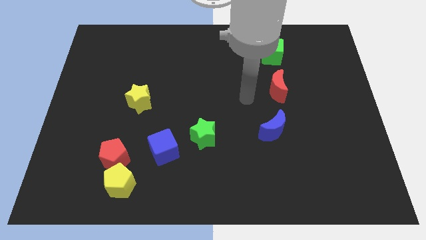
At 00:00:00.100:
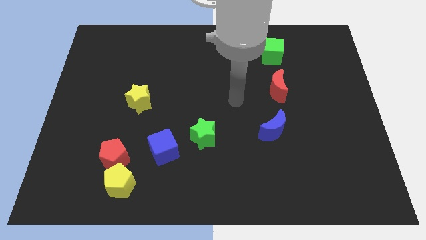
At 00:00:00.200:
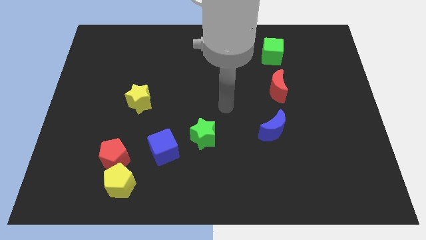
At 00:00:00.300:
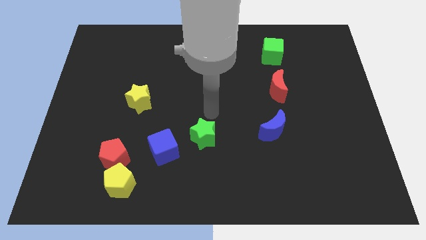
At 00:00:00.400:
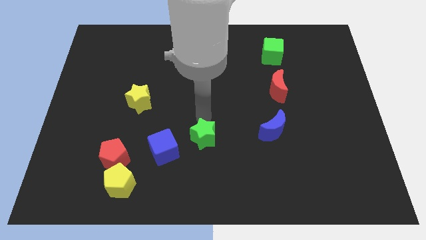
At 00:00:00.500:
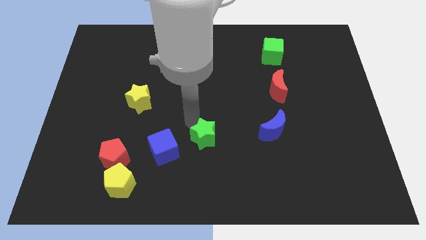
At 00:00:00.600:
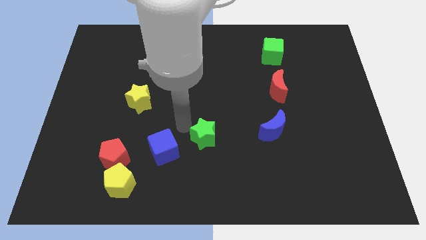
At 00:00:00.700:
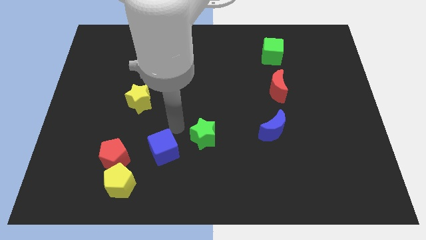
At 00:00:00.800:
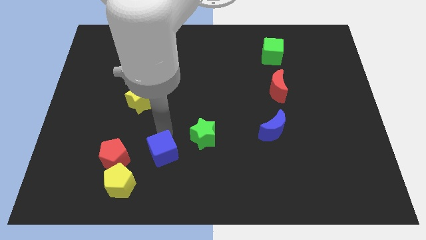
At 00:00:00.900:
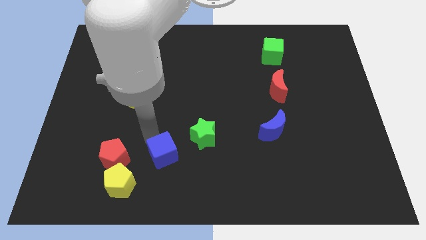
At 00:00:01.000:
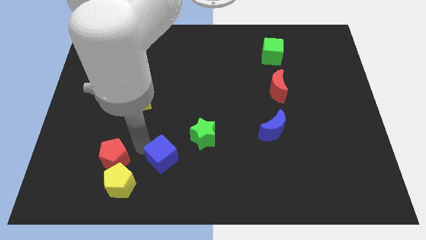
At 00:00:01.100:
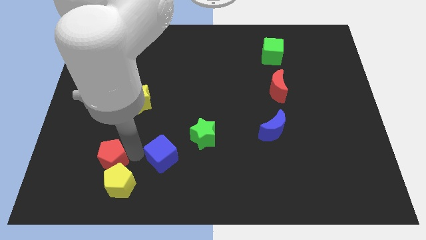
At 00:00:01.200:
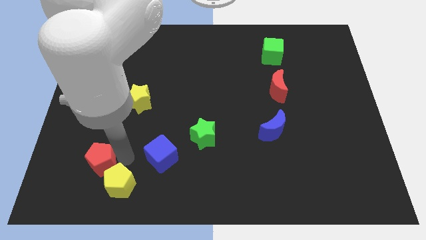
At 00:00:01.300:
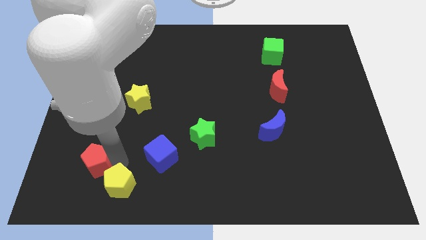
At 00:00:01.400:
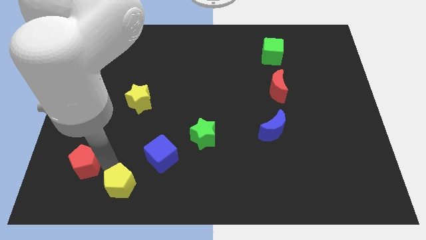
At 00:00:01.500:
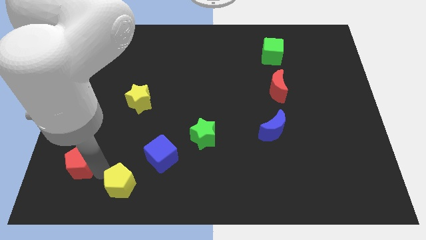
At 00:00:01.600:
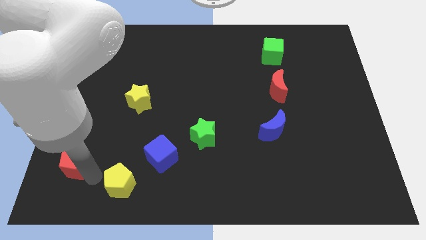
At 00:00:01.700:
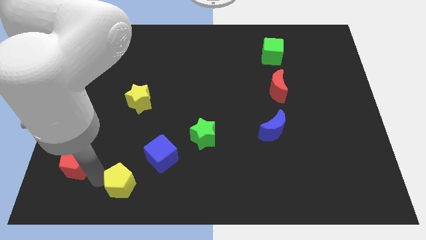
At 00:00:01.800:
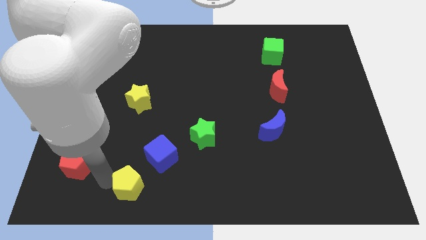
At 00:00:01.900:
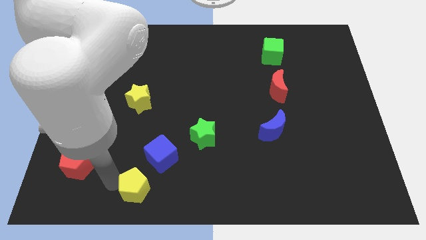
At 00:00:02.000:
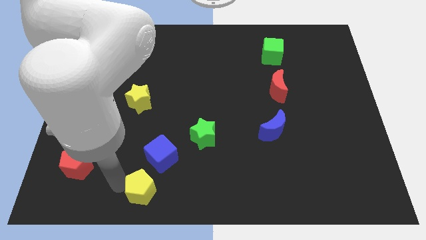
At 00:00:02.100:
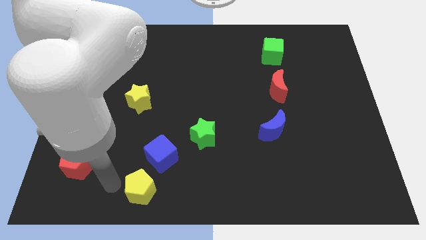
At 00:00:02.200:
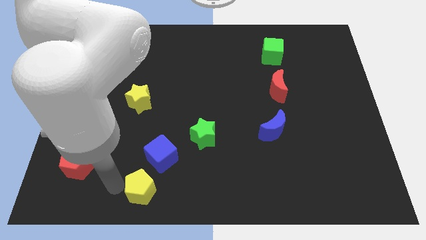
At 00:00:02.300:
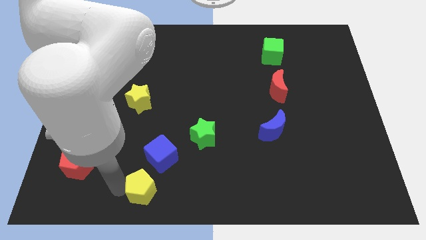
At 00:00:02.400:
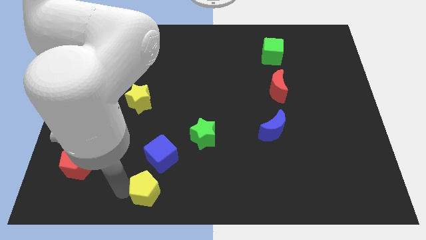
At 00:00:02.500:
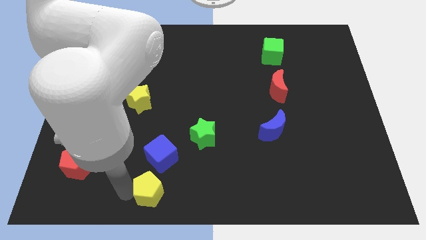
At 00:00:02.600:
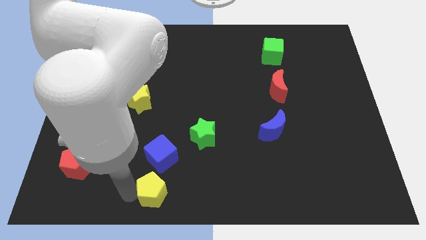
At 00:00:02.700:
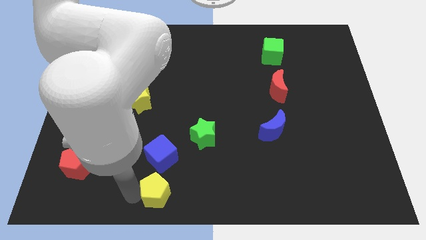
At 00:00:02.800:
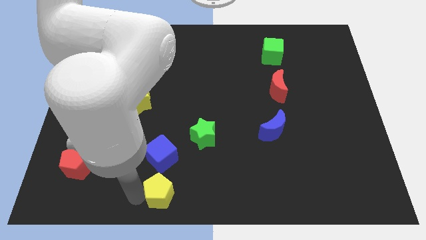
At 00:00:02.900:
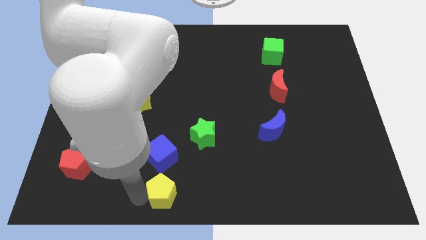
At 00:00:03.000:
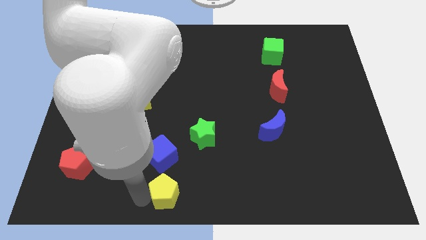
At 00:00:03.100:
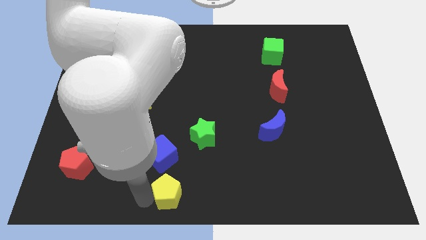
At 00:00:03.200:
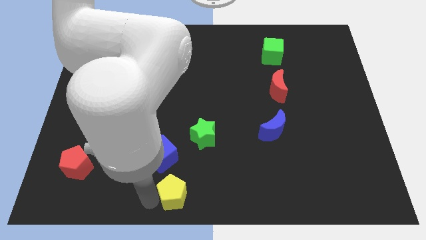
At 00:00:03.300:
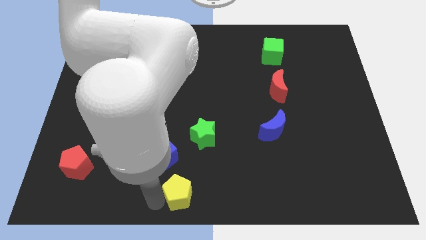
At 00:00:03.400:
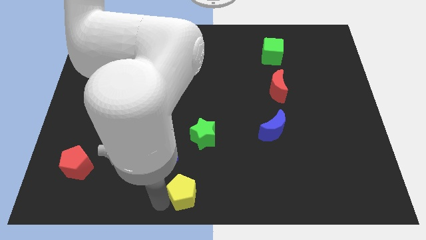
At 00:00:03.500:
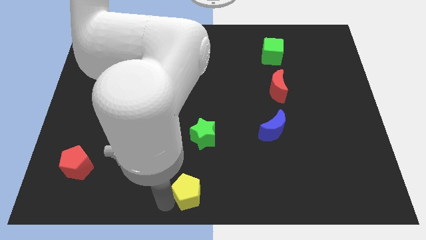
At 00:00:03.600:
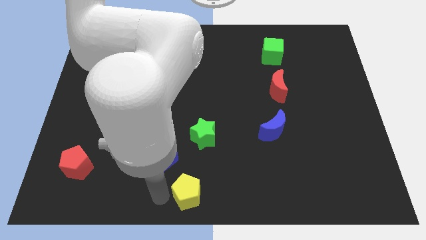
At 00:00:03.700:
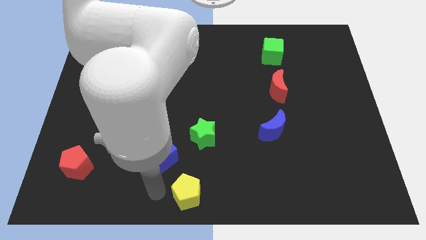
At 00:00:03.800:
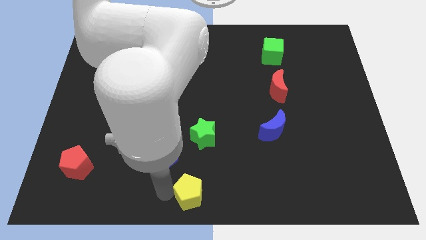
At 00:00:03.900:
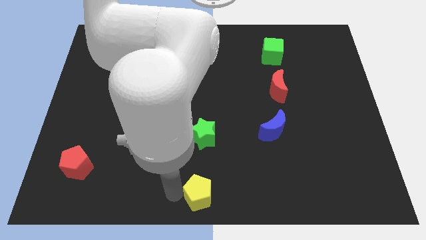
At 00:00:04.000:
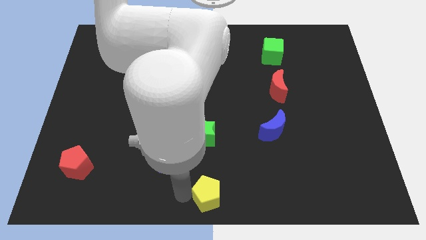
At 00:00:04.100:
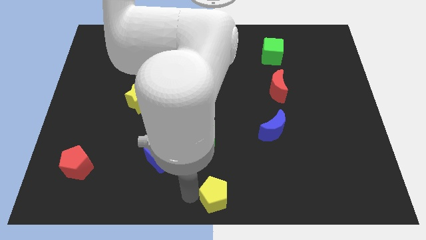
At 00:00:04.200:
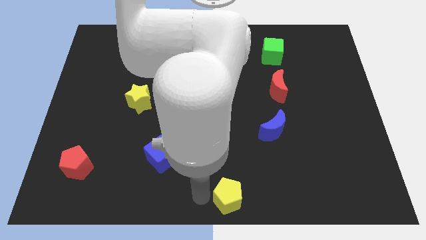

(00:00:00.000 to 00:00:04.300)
move the yellow pentagon right

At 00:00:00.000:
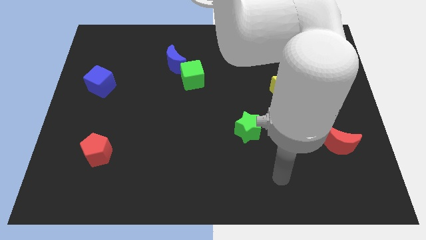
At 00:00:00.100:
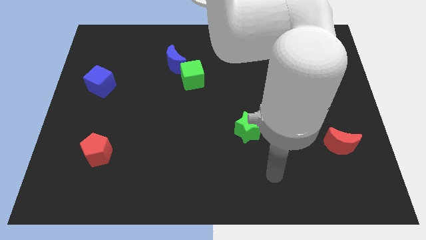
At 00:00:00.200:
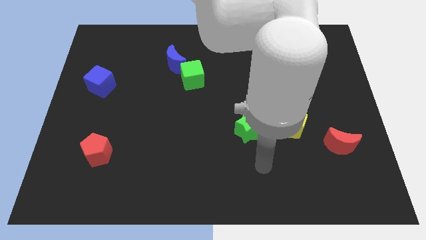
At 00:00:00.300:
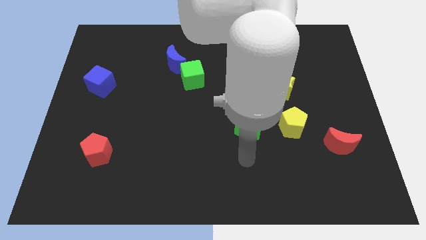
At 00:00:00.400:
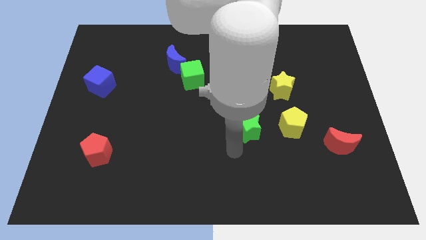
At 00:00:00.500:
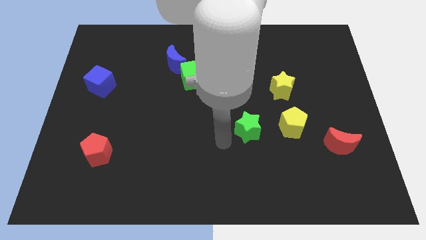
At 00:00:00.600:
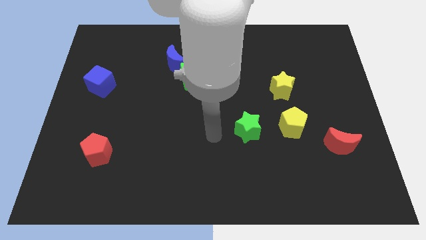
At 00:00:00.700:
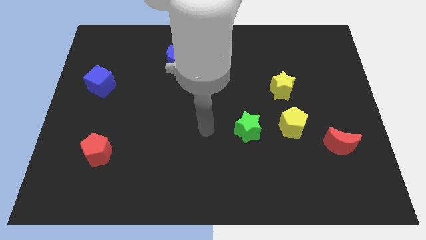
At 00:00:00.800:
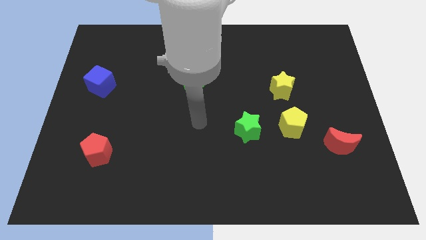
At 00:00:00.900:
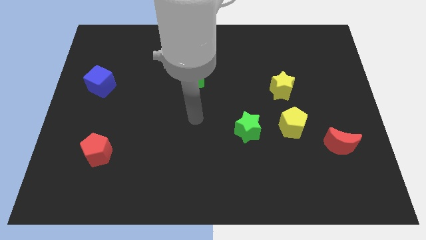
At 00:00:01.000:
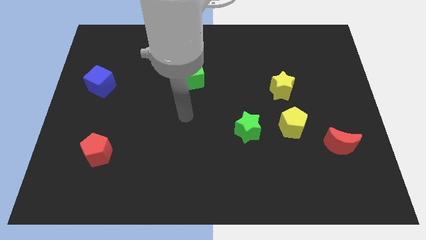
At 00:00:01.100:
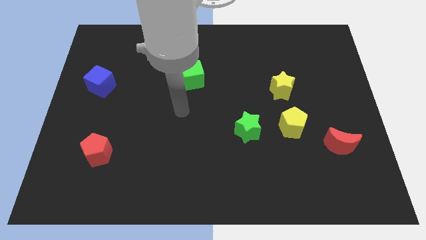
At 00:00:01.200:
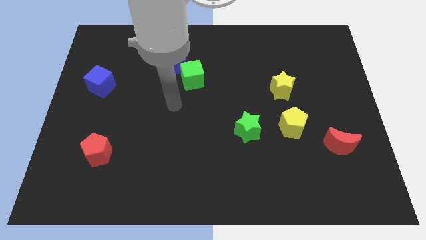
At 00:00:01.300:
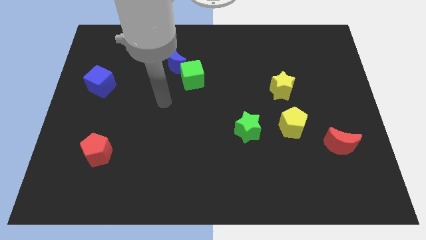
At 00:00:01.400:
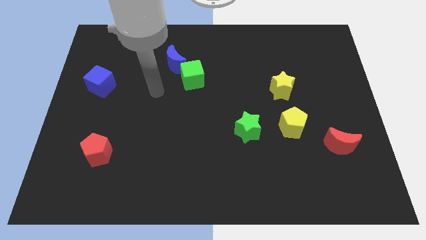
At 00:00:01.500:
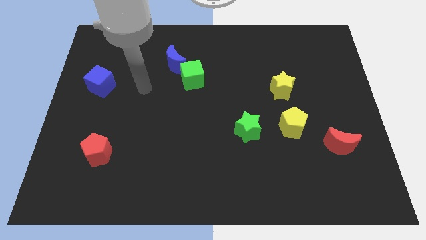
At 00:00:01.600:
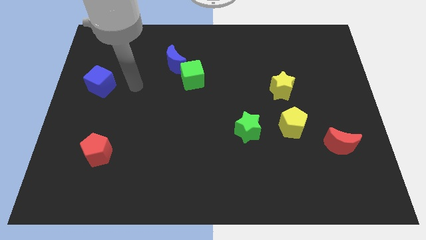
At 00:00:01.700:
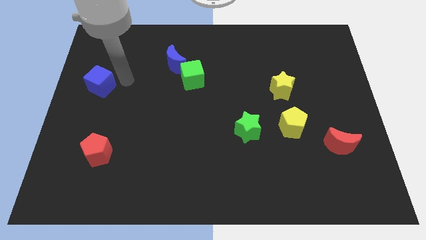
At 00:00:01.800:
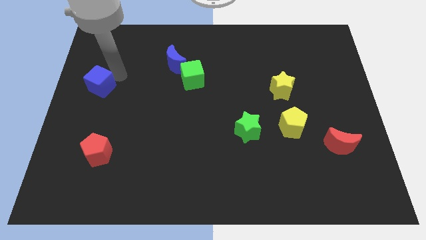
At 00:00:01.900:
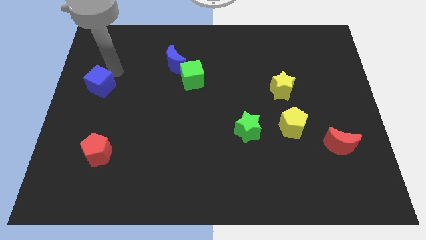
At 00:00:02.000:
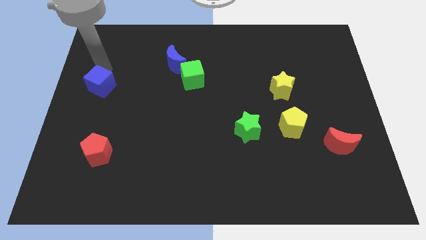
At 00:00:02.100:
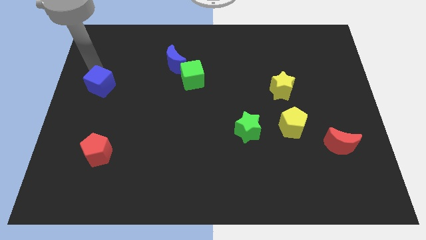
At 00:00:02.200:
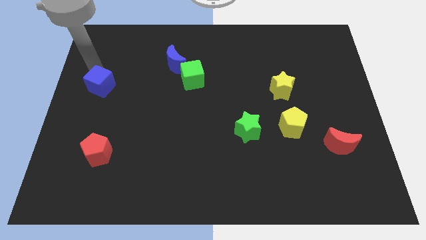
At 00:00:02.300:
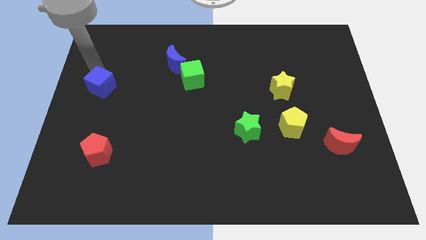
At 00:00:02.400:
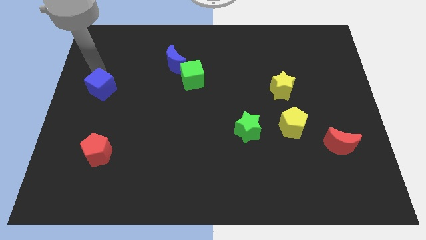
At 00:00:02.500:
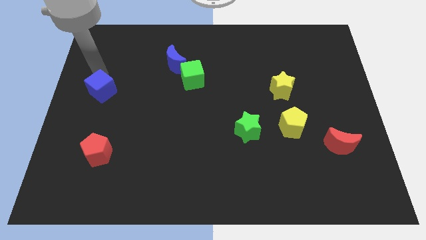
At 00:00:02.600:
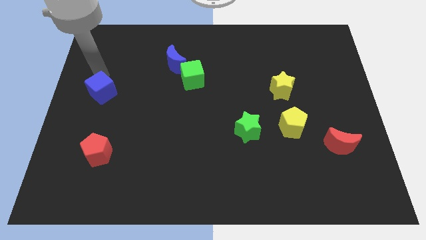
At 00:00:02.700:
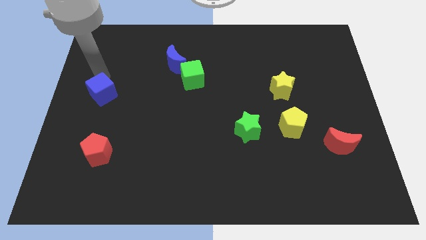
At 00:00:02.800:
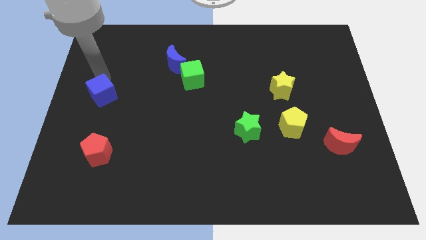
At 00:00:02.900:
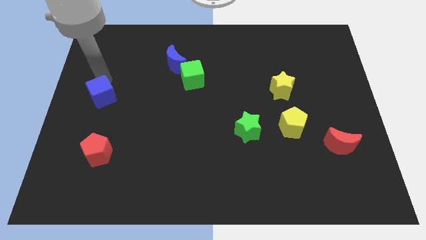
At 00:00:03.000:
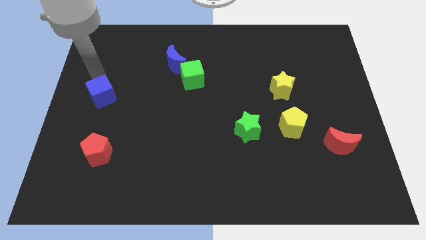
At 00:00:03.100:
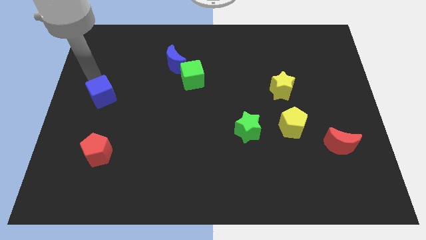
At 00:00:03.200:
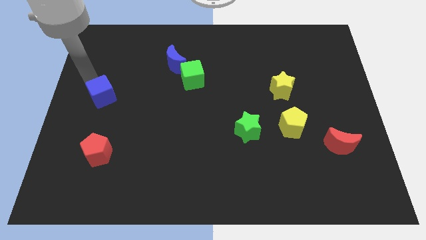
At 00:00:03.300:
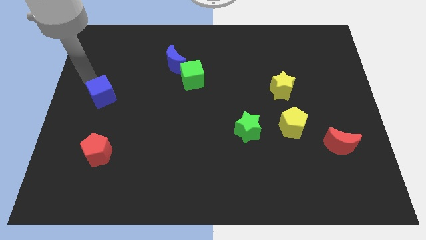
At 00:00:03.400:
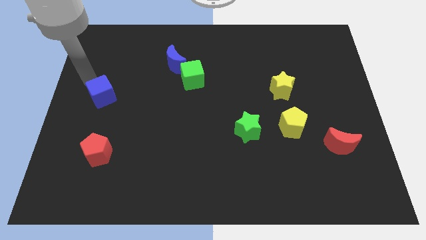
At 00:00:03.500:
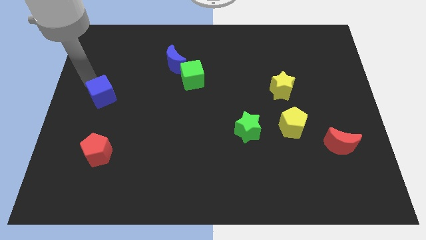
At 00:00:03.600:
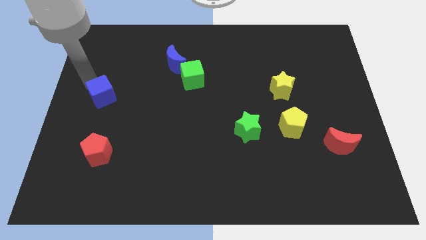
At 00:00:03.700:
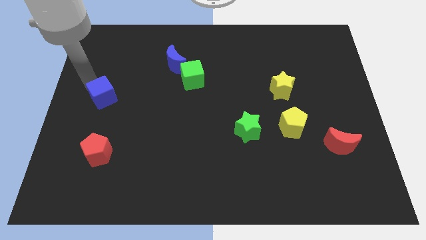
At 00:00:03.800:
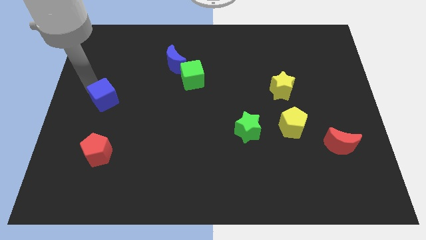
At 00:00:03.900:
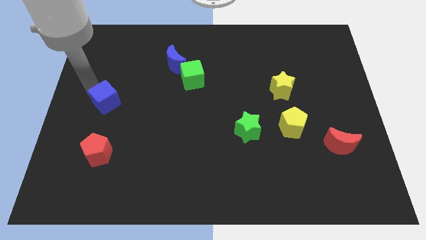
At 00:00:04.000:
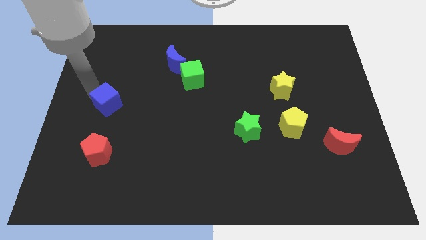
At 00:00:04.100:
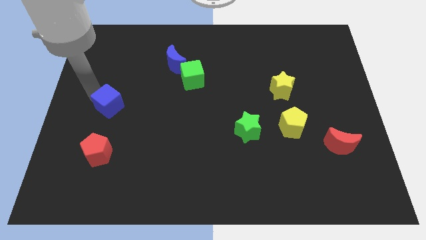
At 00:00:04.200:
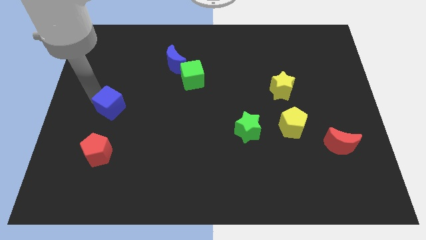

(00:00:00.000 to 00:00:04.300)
slightly slide the blue cube down and right diagonally
